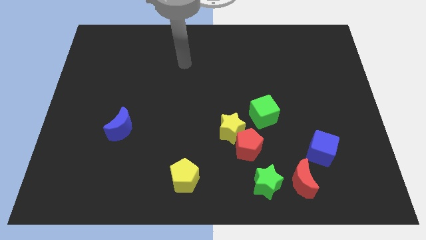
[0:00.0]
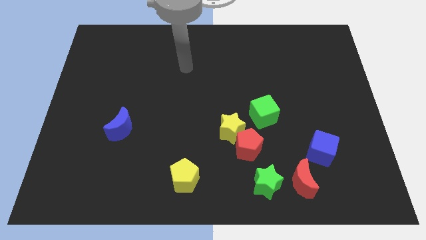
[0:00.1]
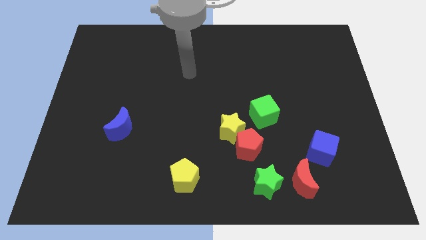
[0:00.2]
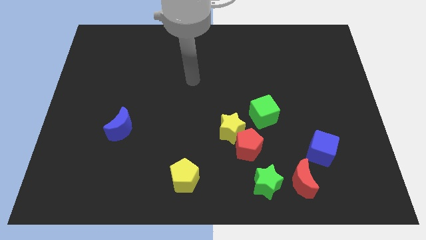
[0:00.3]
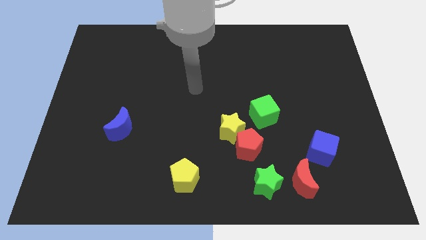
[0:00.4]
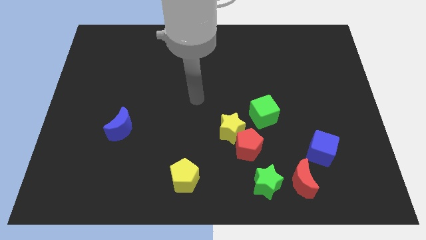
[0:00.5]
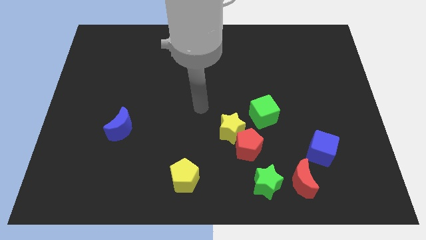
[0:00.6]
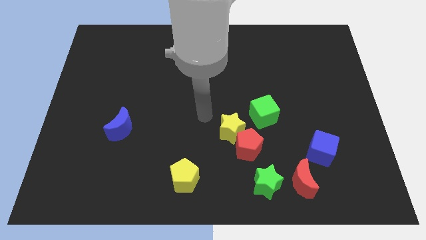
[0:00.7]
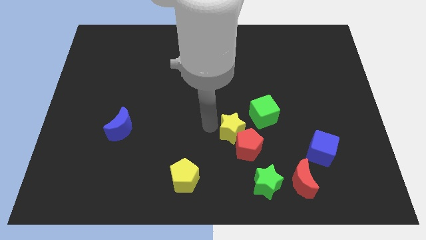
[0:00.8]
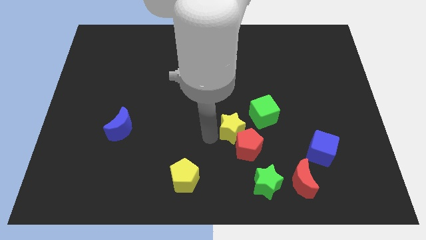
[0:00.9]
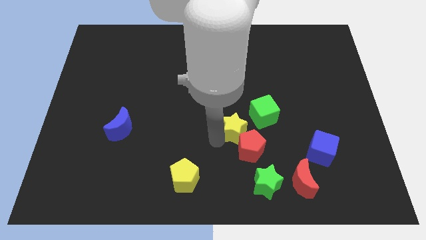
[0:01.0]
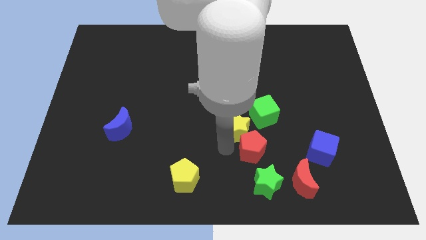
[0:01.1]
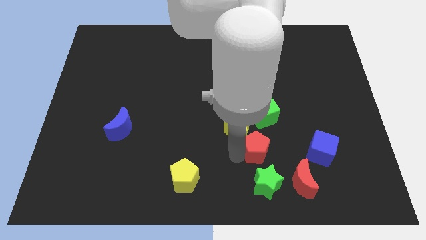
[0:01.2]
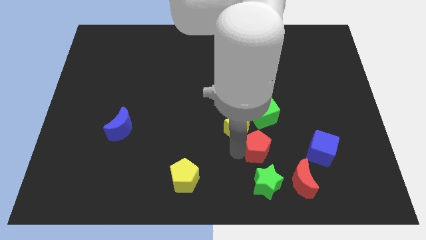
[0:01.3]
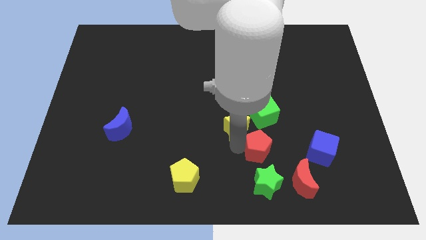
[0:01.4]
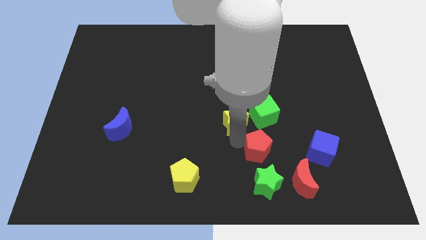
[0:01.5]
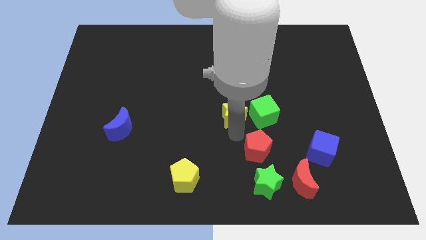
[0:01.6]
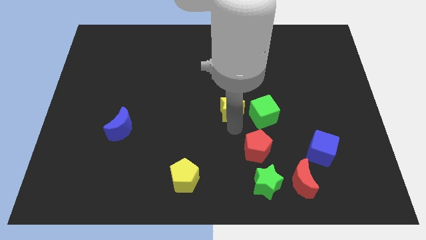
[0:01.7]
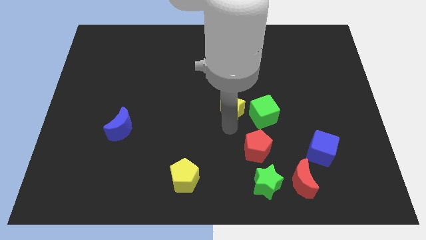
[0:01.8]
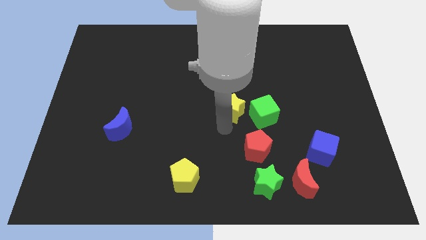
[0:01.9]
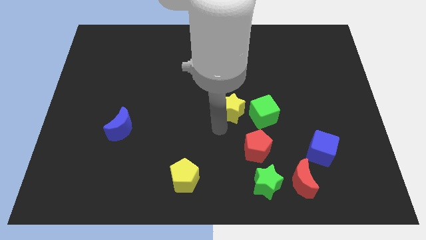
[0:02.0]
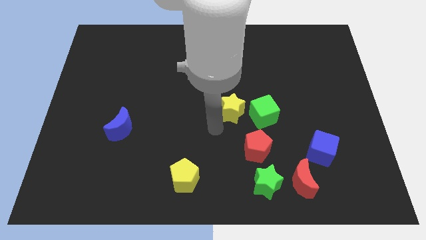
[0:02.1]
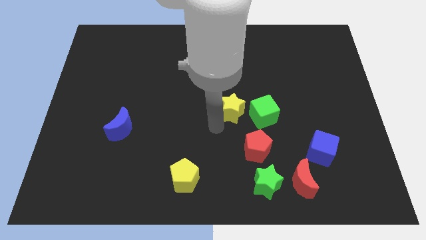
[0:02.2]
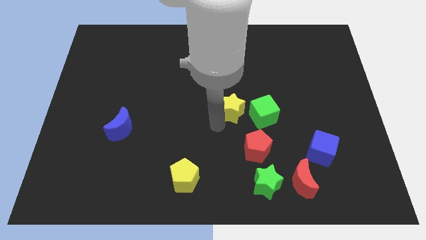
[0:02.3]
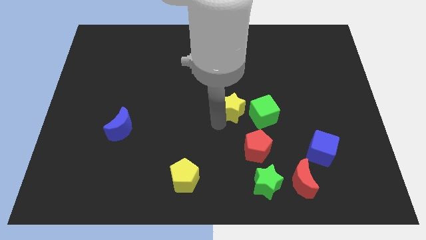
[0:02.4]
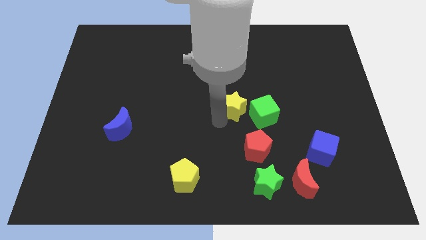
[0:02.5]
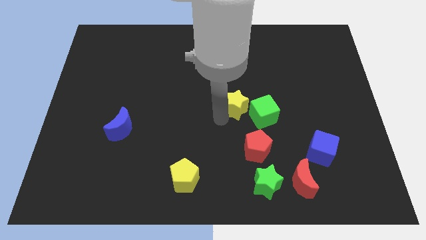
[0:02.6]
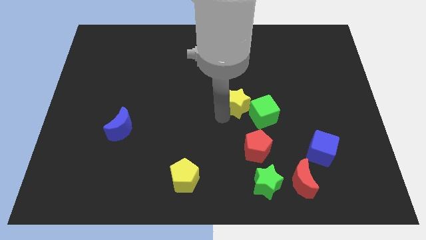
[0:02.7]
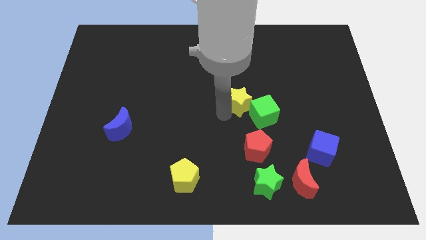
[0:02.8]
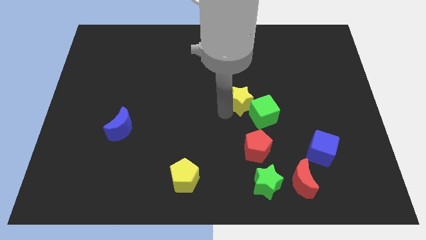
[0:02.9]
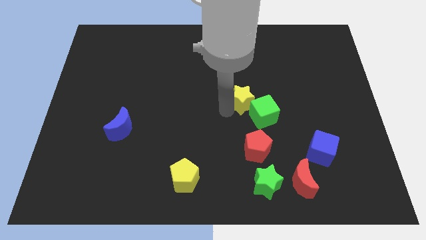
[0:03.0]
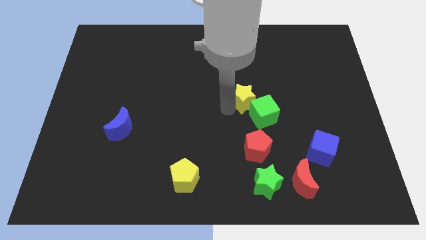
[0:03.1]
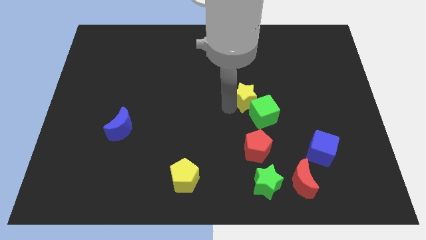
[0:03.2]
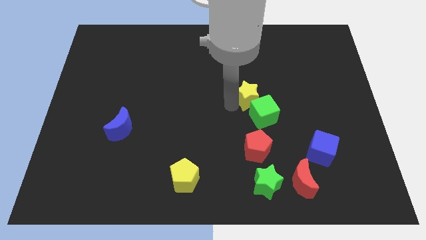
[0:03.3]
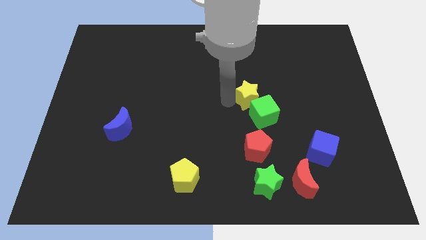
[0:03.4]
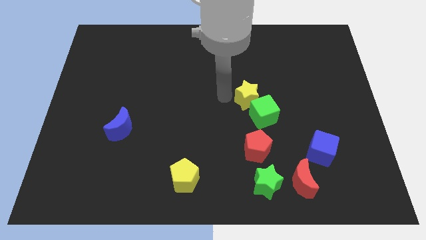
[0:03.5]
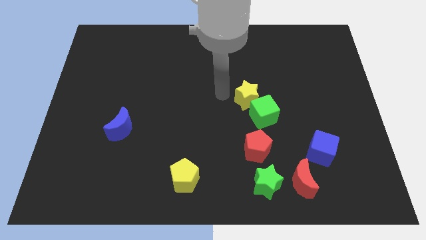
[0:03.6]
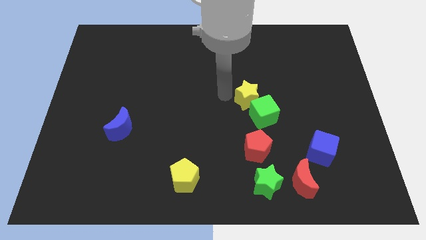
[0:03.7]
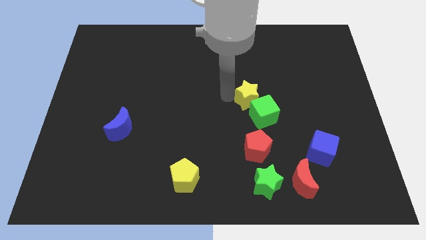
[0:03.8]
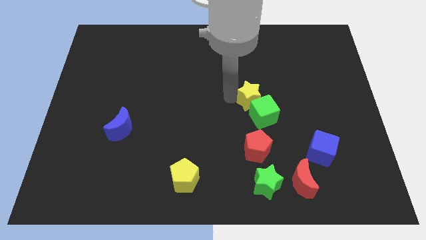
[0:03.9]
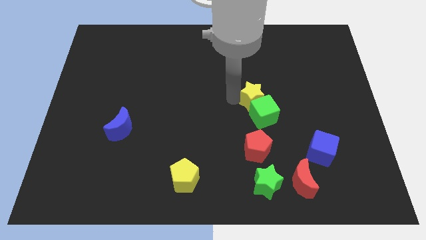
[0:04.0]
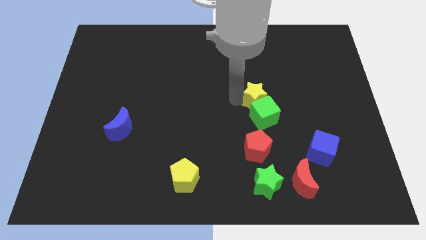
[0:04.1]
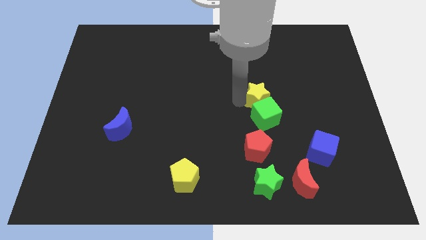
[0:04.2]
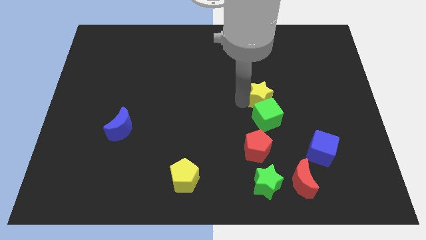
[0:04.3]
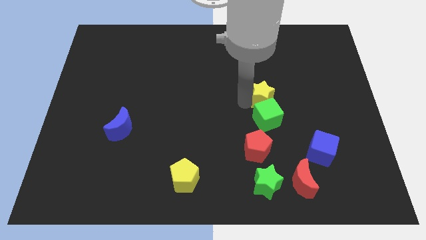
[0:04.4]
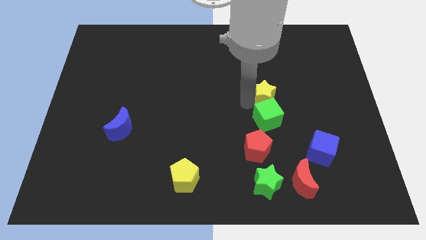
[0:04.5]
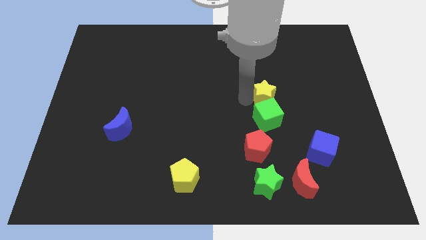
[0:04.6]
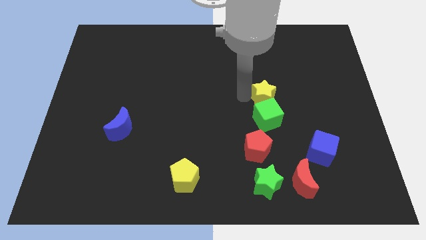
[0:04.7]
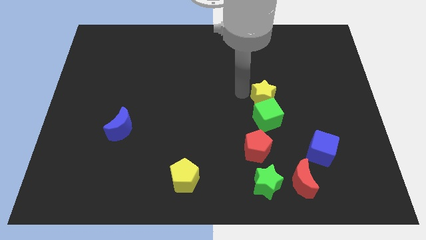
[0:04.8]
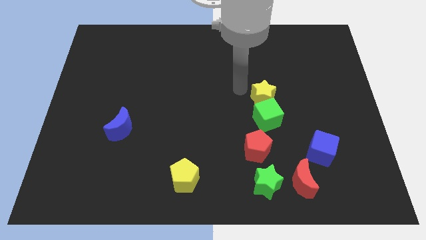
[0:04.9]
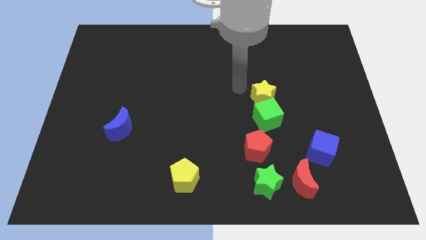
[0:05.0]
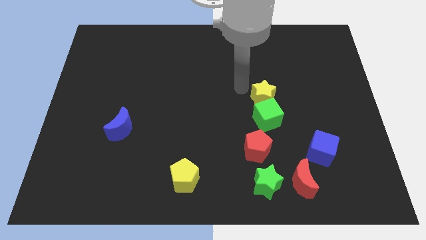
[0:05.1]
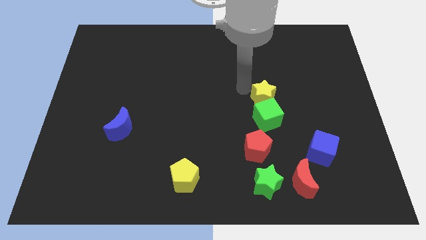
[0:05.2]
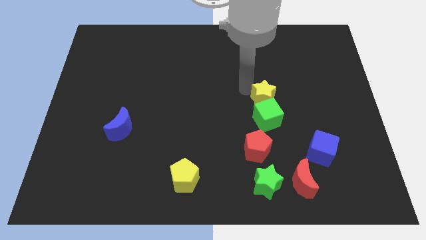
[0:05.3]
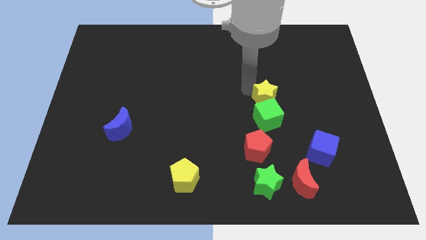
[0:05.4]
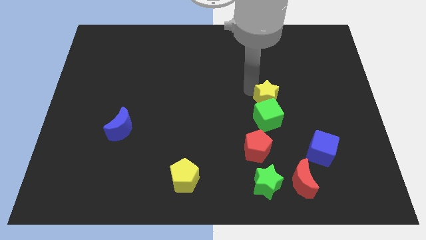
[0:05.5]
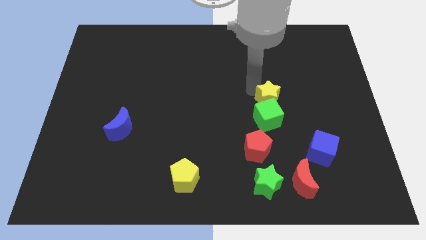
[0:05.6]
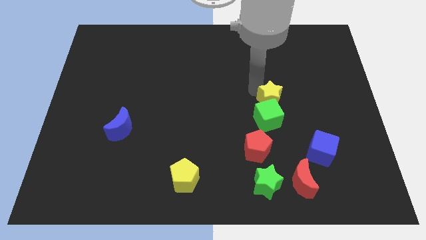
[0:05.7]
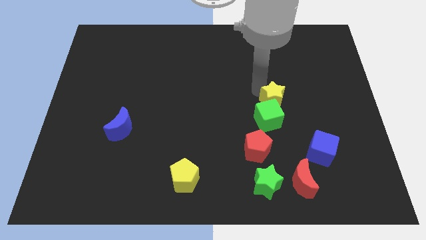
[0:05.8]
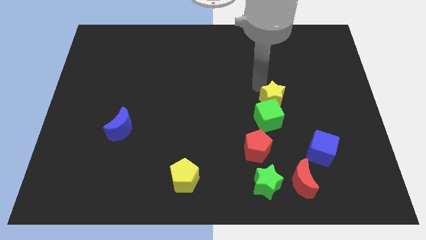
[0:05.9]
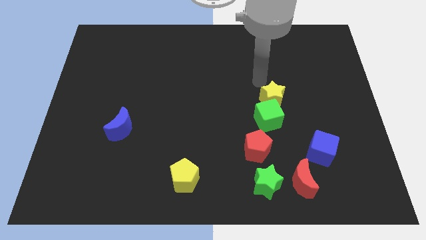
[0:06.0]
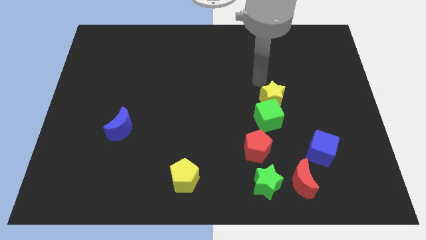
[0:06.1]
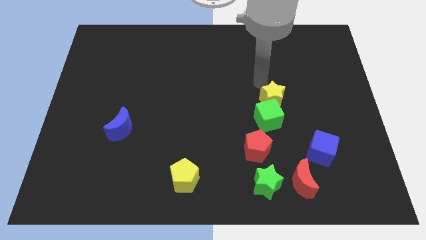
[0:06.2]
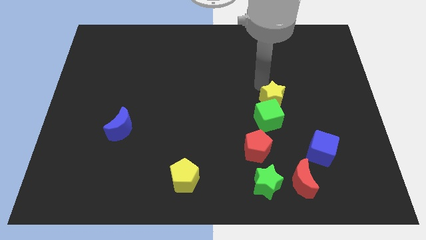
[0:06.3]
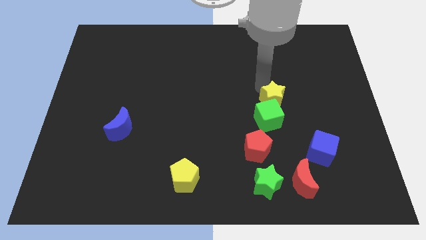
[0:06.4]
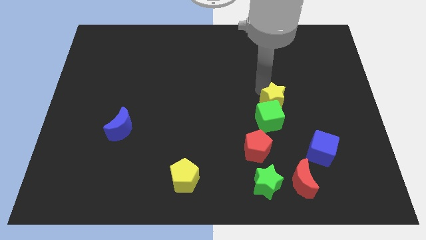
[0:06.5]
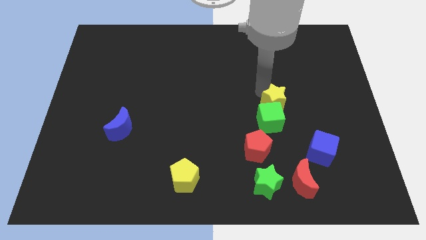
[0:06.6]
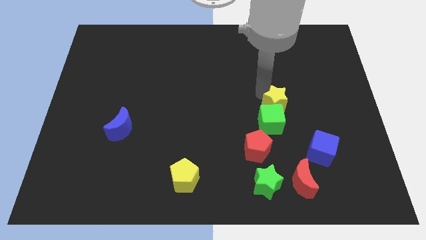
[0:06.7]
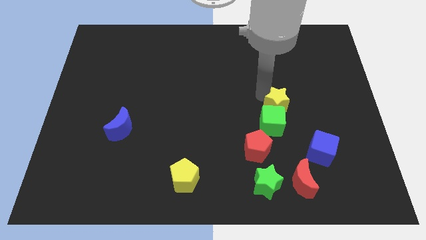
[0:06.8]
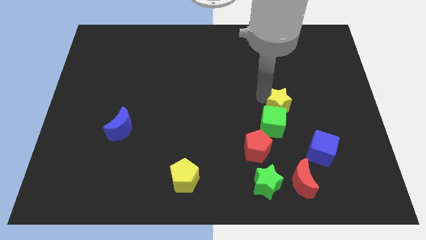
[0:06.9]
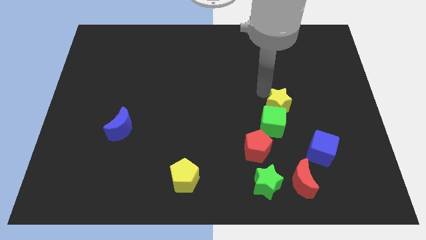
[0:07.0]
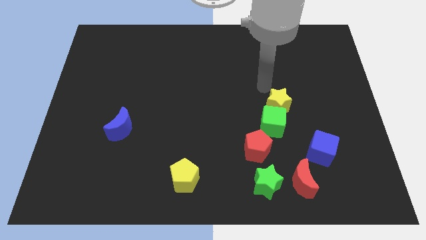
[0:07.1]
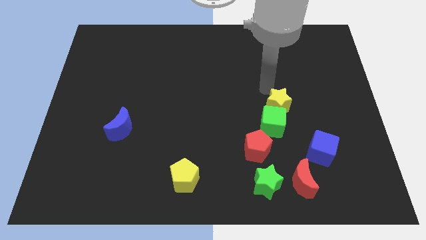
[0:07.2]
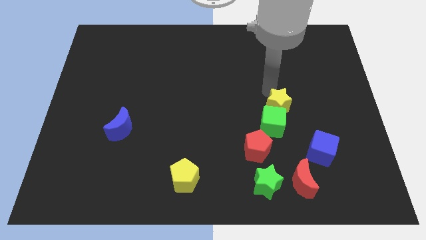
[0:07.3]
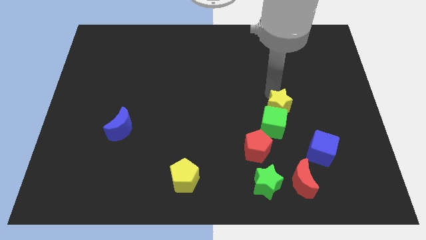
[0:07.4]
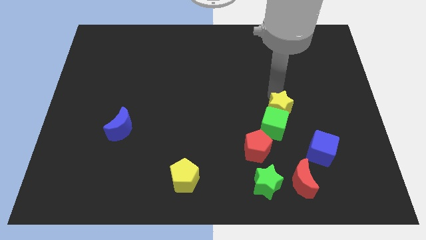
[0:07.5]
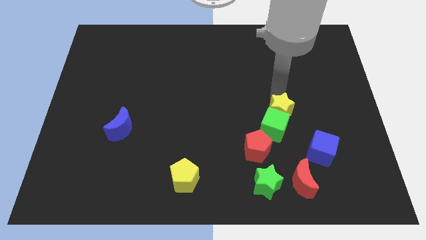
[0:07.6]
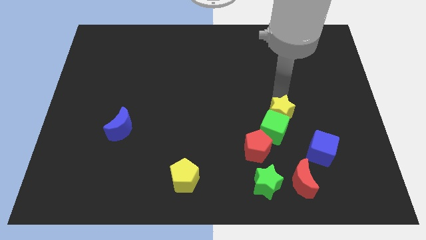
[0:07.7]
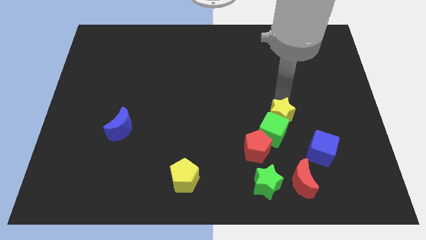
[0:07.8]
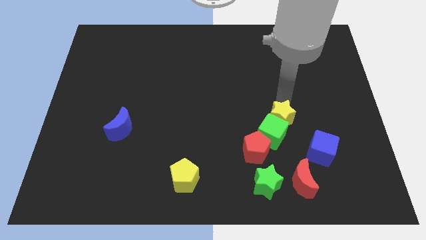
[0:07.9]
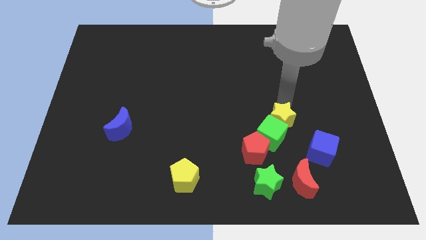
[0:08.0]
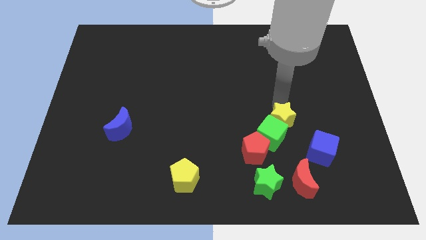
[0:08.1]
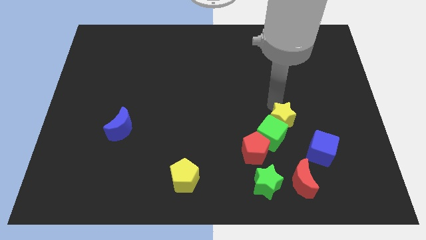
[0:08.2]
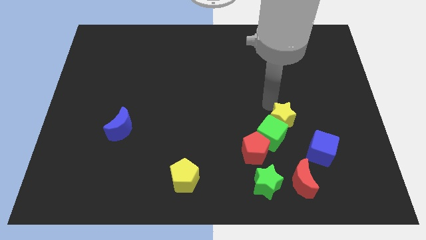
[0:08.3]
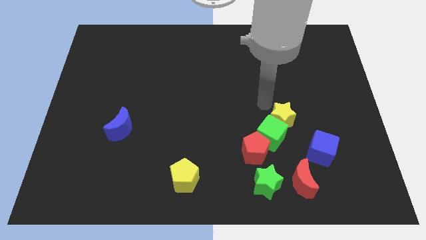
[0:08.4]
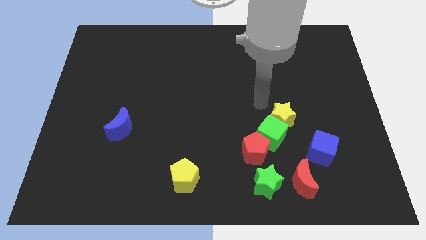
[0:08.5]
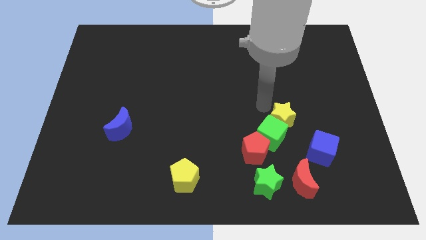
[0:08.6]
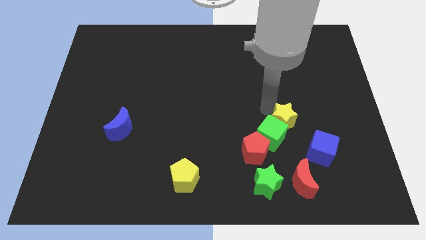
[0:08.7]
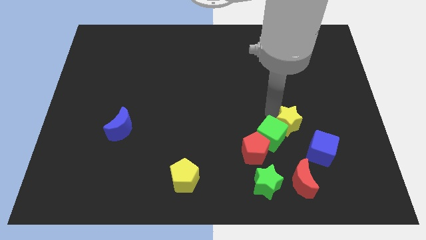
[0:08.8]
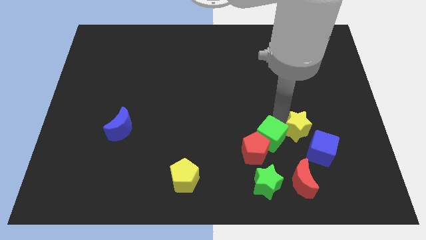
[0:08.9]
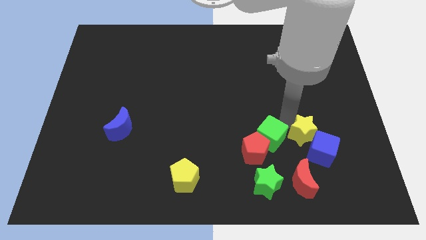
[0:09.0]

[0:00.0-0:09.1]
put the yellow star to the blue cube
